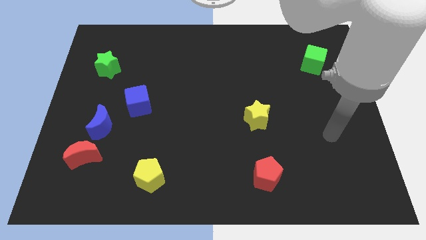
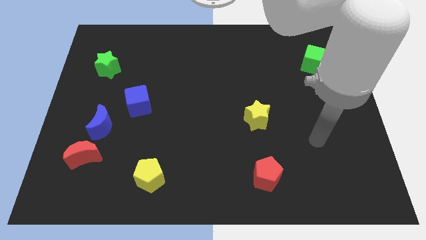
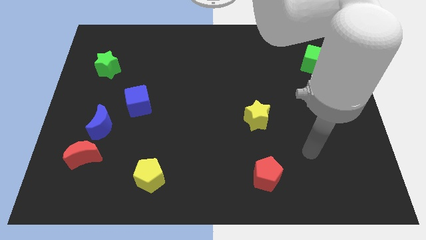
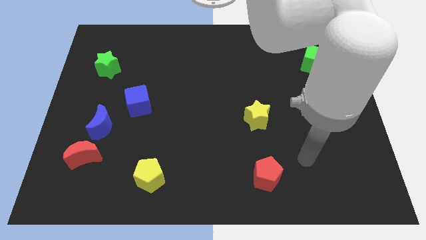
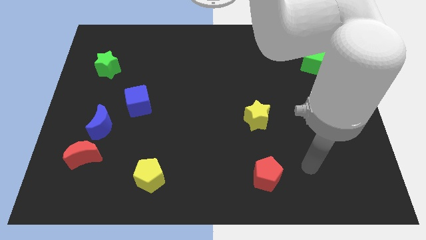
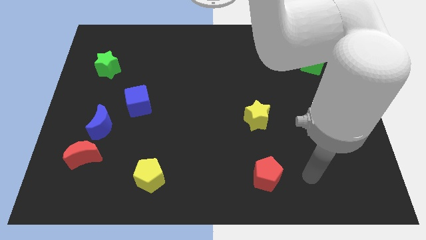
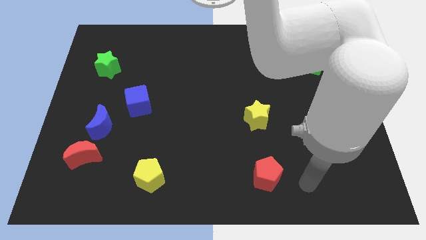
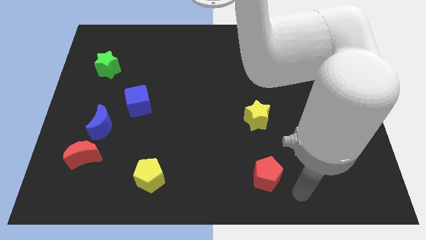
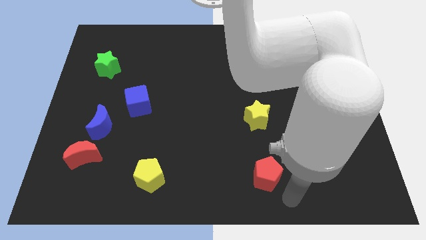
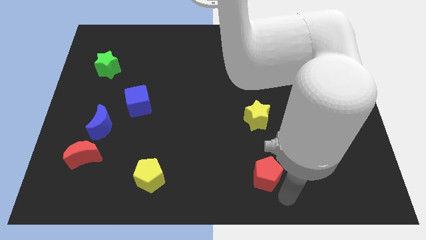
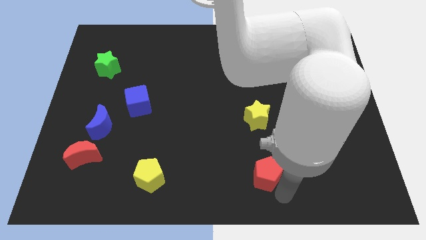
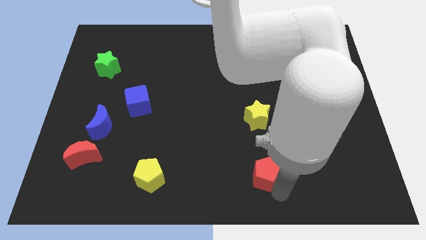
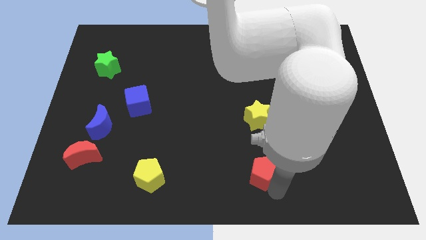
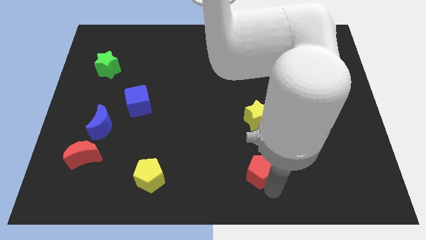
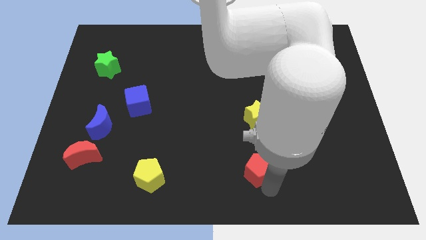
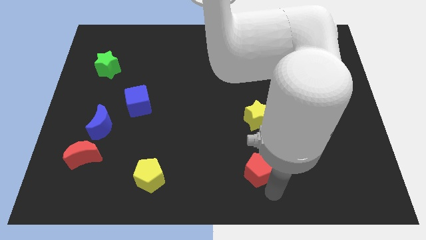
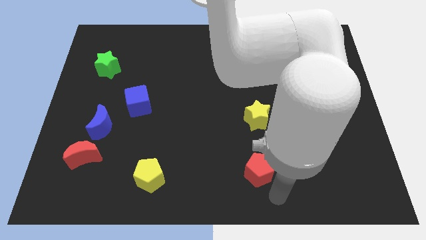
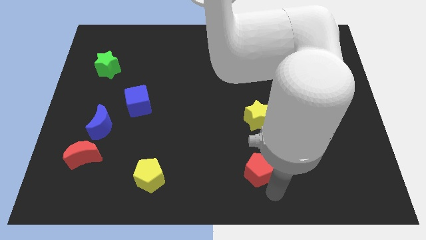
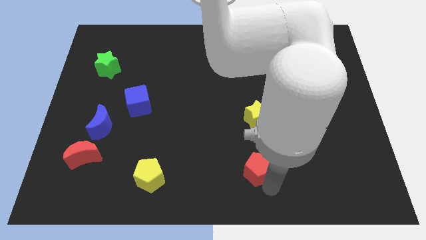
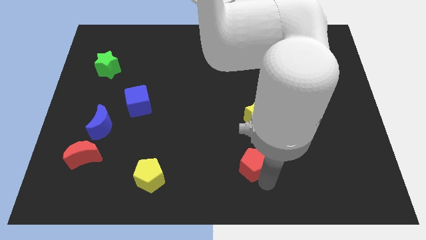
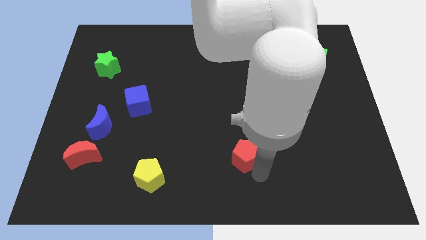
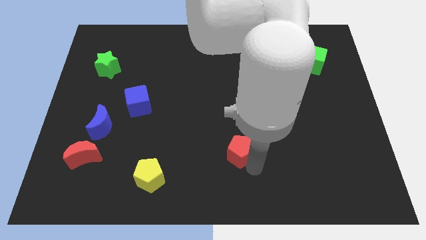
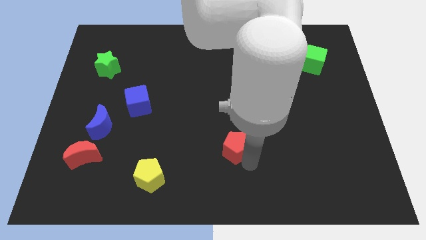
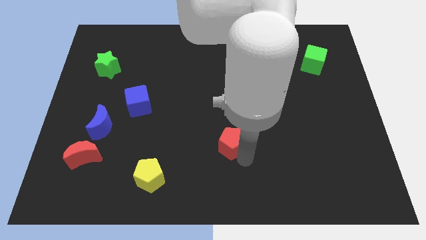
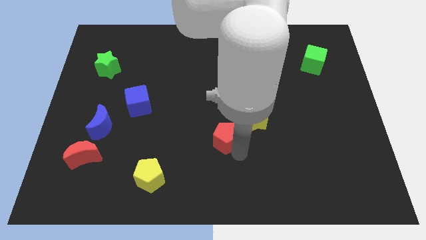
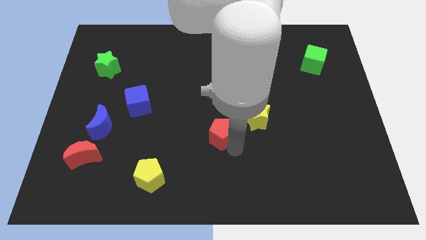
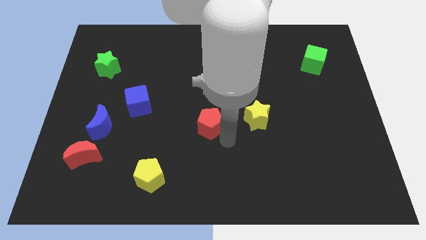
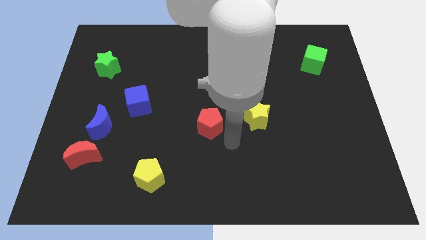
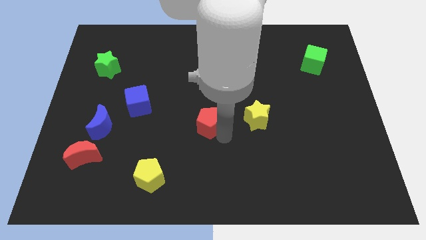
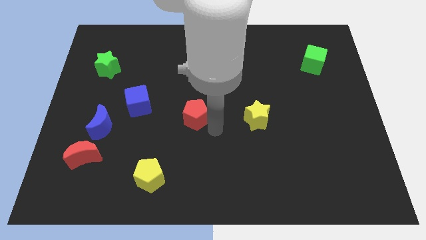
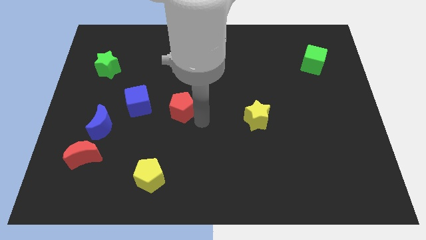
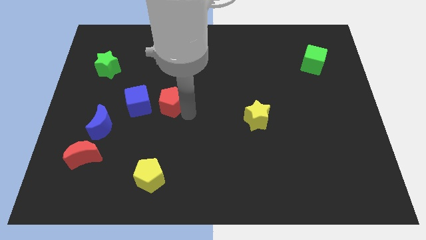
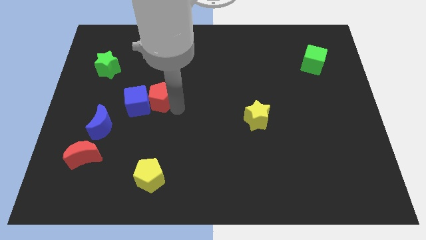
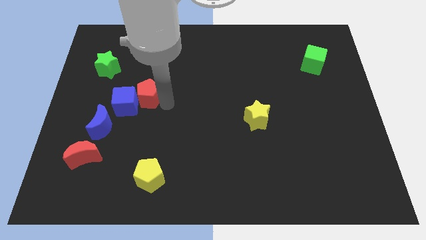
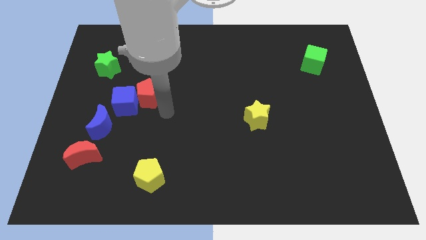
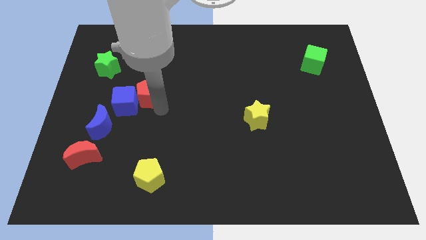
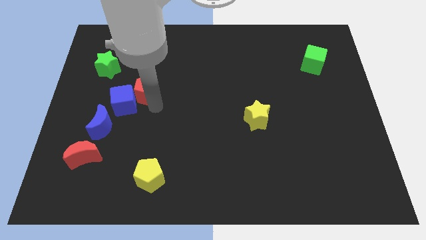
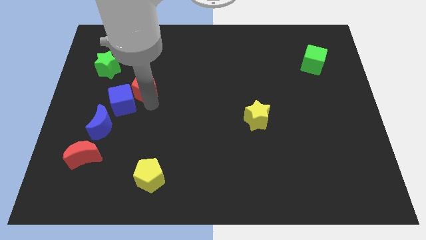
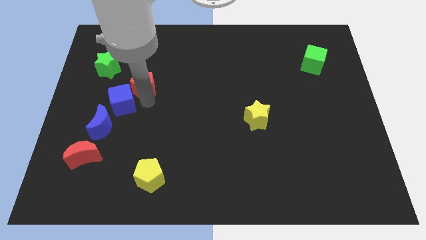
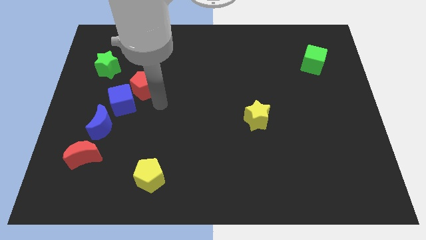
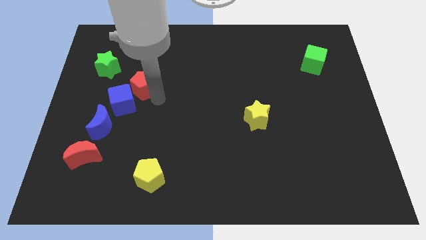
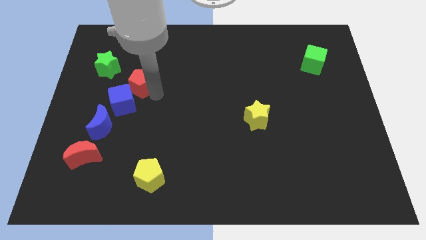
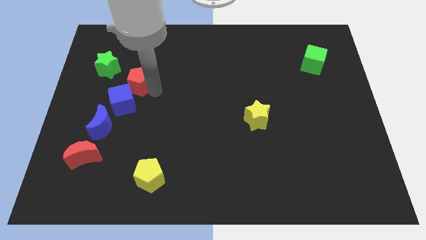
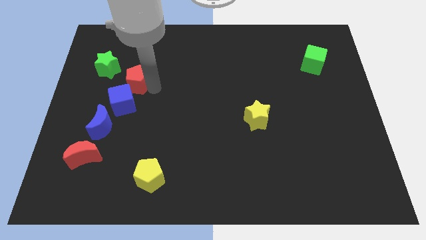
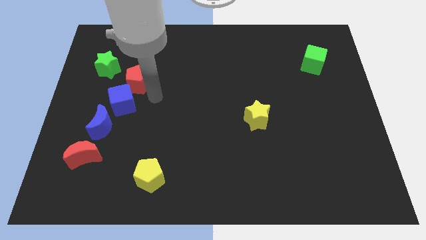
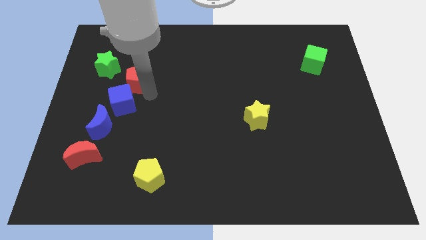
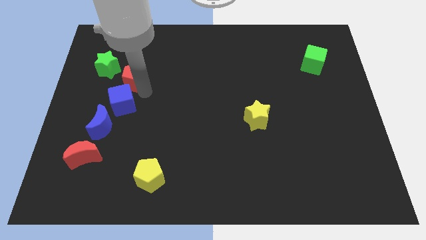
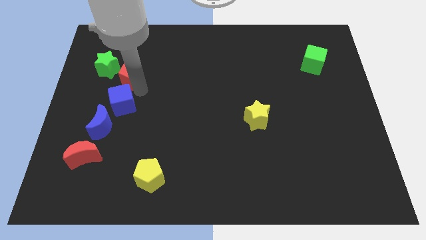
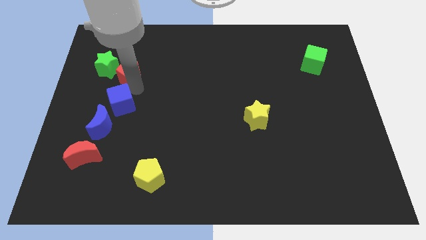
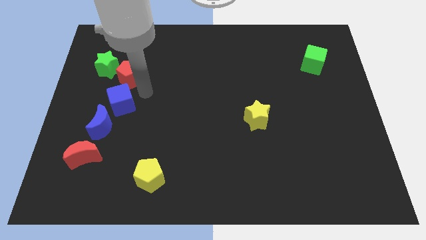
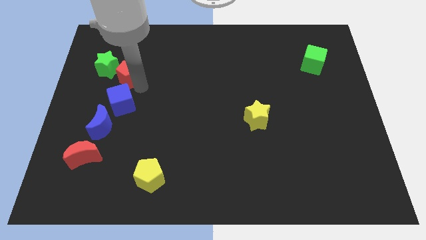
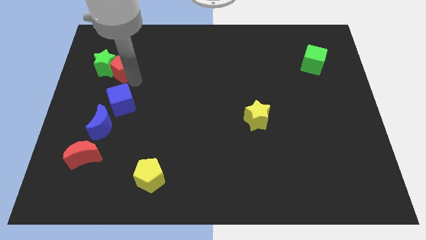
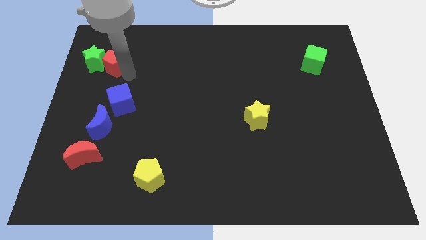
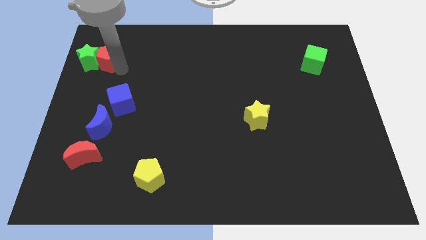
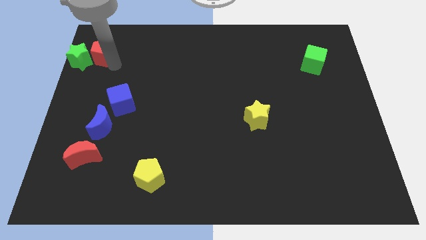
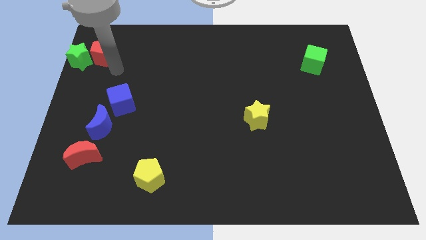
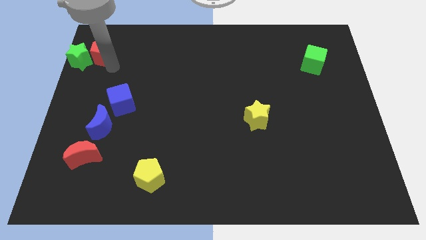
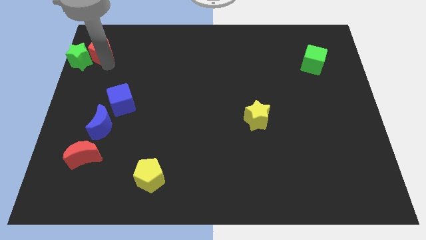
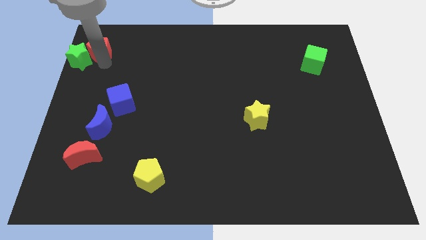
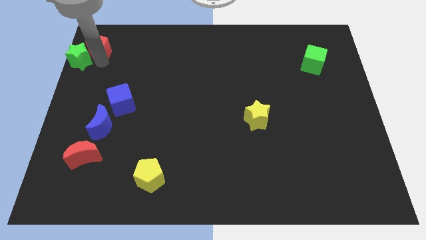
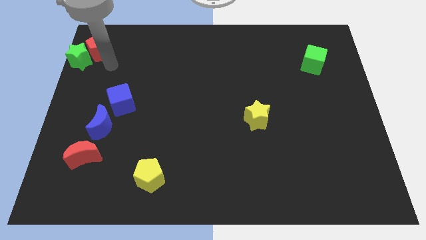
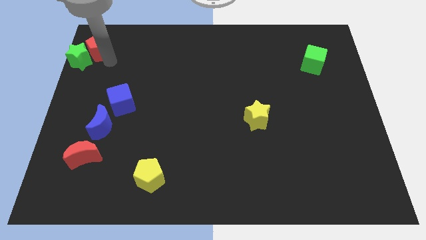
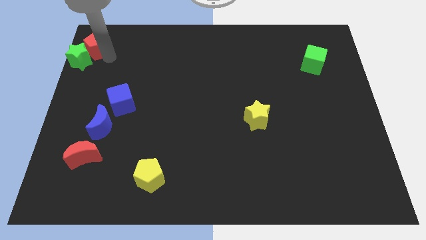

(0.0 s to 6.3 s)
slide the red pentagon to the top left of the board
